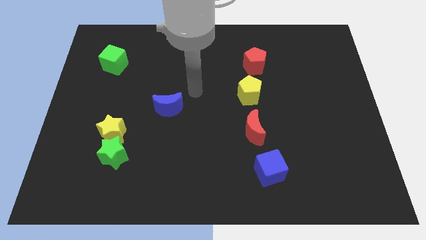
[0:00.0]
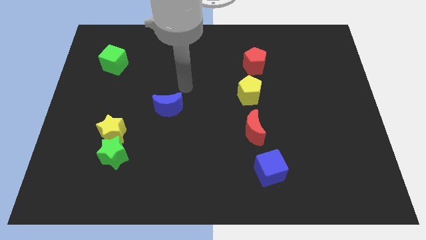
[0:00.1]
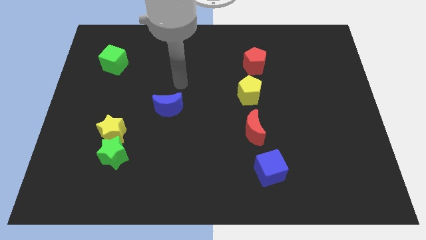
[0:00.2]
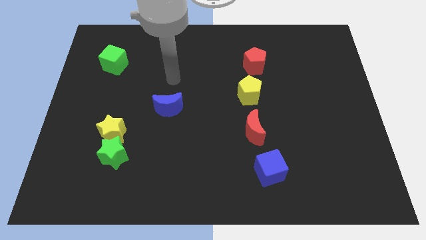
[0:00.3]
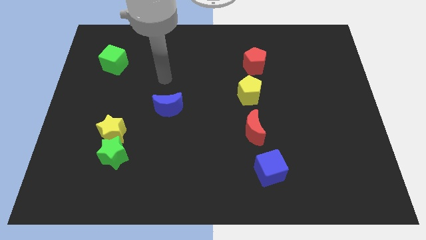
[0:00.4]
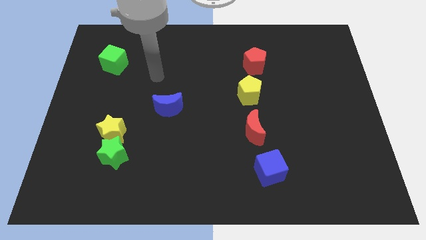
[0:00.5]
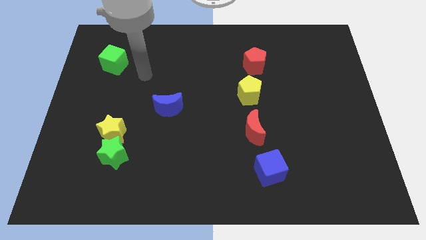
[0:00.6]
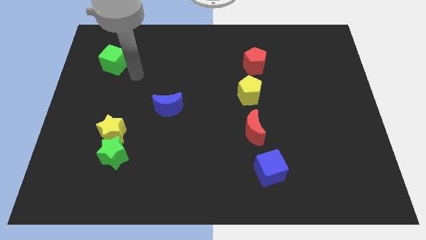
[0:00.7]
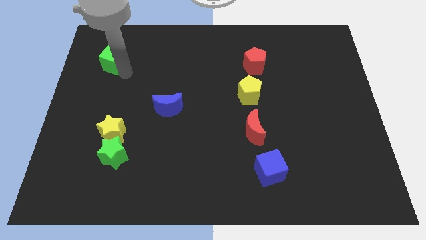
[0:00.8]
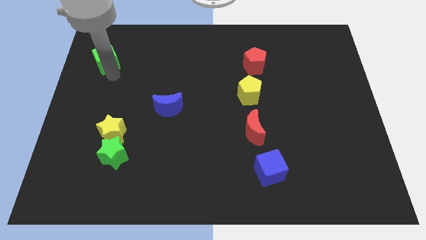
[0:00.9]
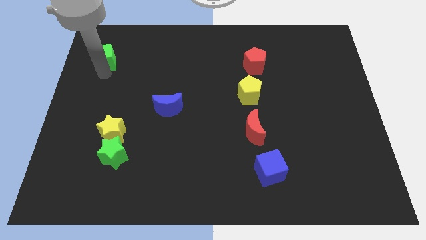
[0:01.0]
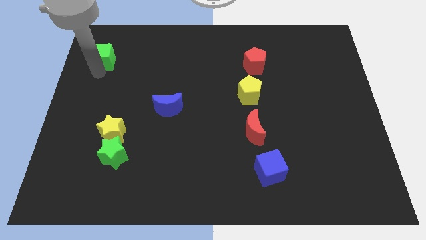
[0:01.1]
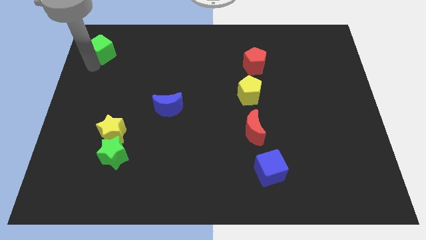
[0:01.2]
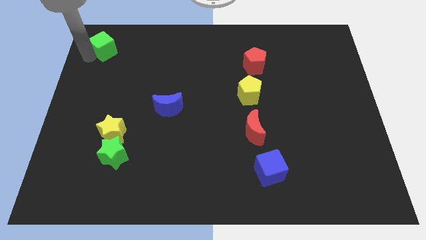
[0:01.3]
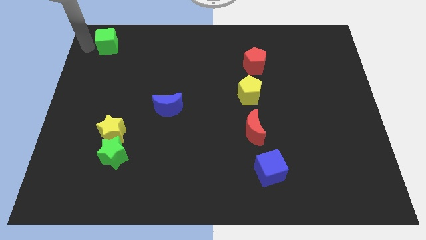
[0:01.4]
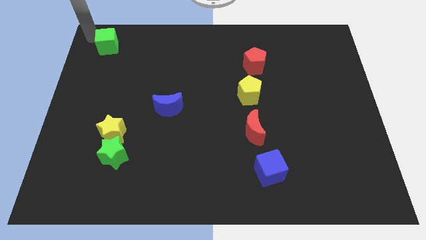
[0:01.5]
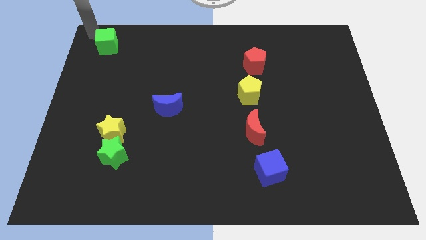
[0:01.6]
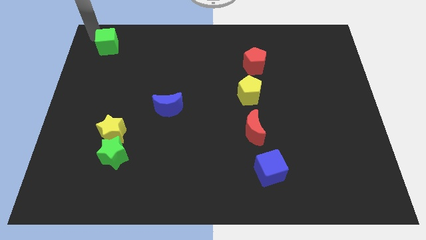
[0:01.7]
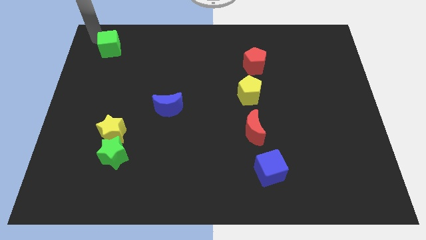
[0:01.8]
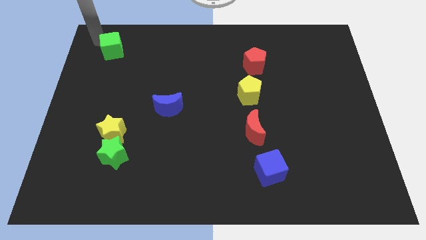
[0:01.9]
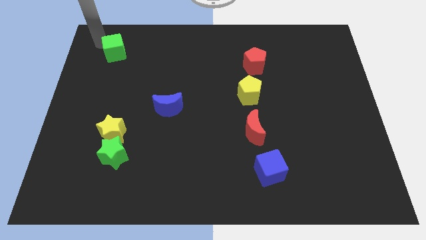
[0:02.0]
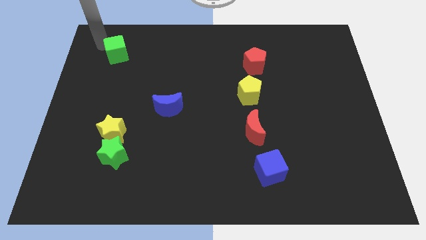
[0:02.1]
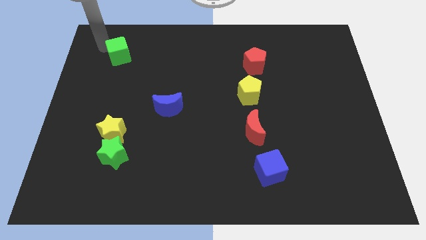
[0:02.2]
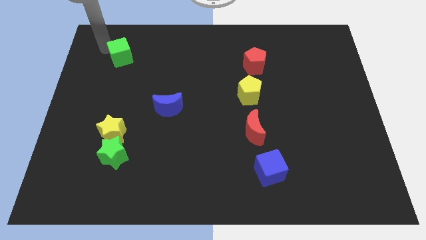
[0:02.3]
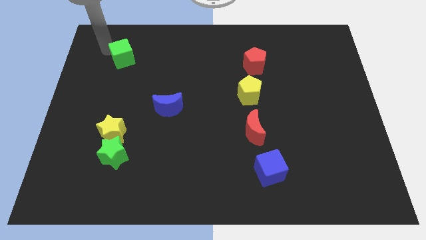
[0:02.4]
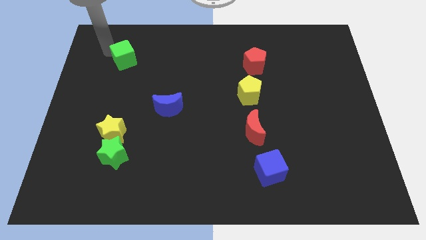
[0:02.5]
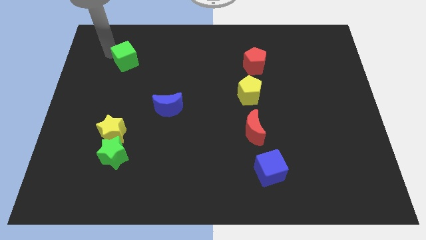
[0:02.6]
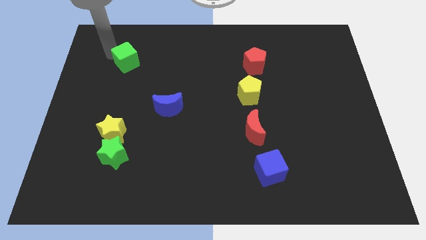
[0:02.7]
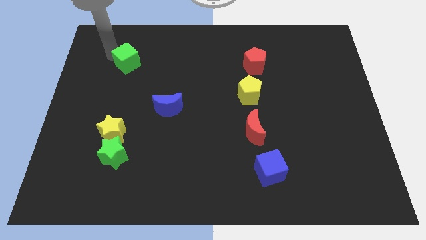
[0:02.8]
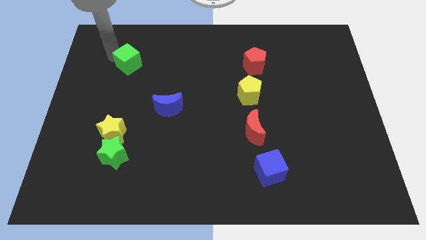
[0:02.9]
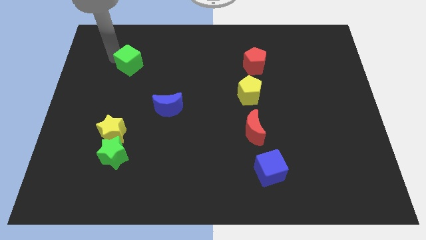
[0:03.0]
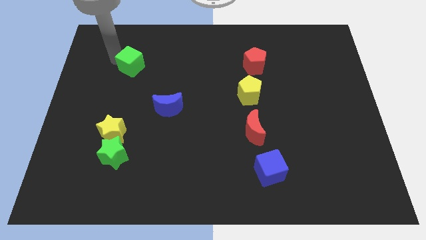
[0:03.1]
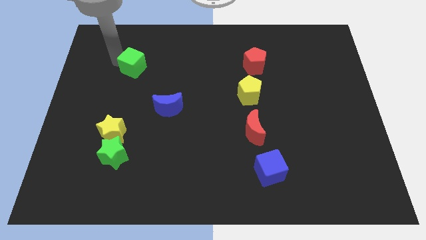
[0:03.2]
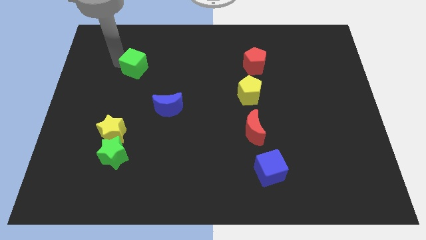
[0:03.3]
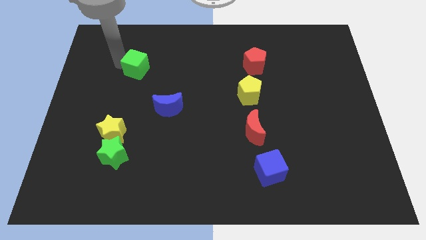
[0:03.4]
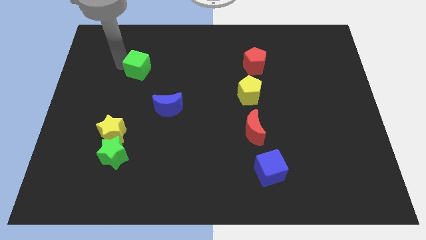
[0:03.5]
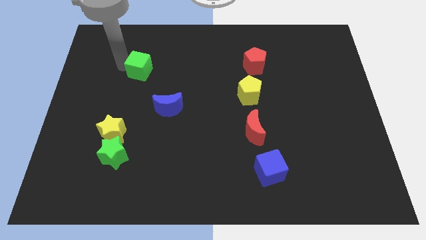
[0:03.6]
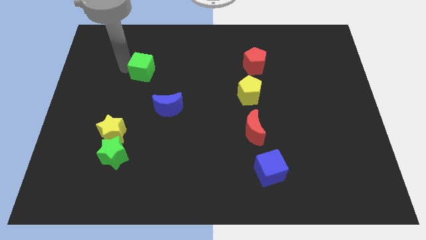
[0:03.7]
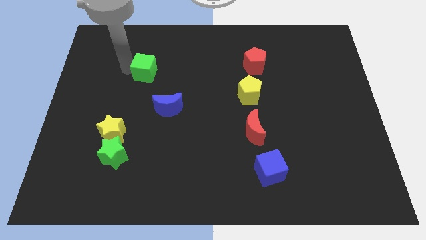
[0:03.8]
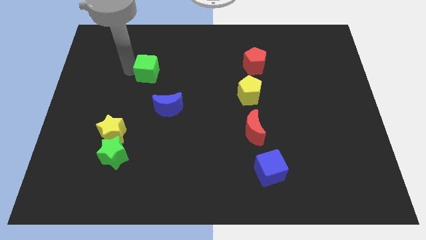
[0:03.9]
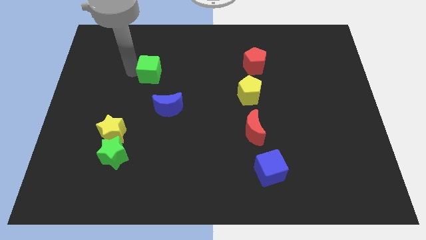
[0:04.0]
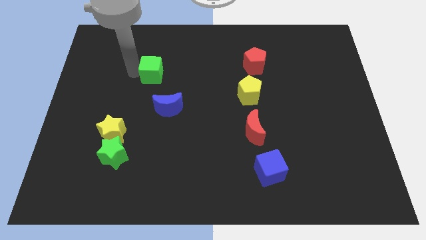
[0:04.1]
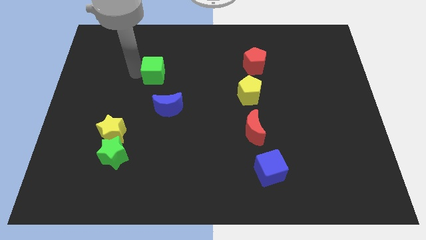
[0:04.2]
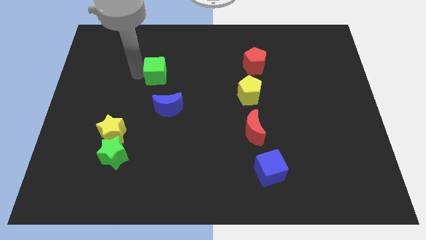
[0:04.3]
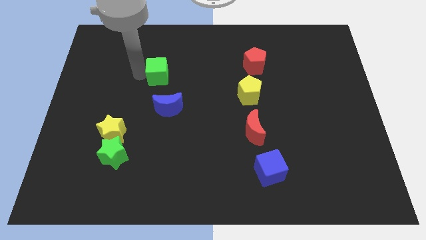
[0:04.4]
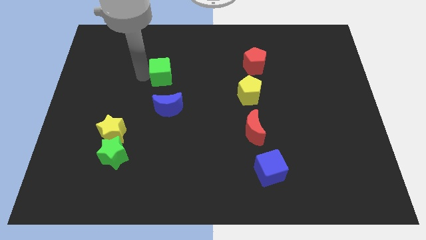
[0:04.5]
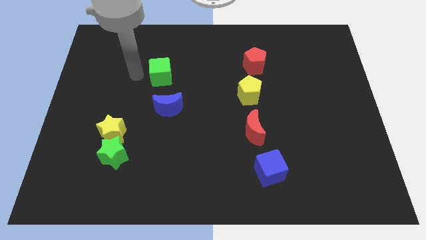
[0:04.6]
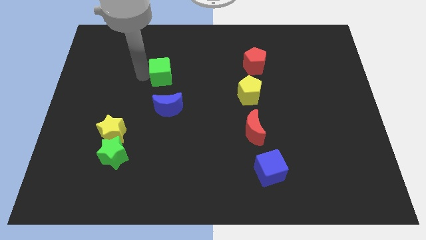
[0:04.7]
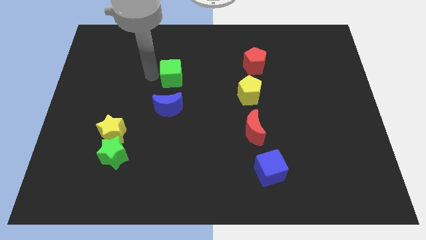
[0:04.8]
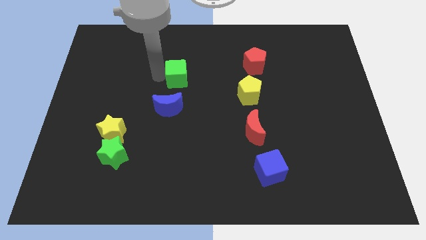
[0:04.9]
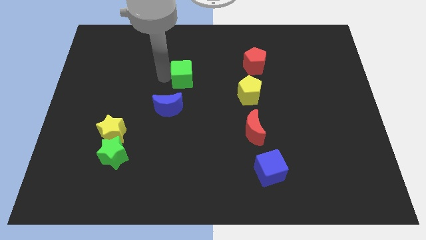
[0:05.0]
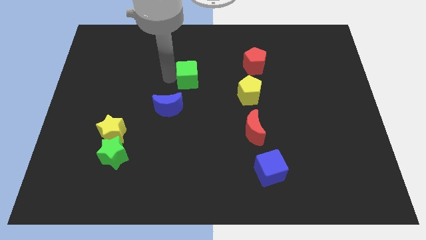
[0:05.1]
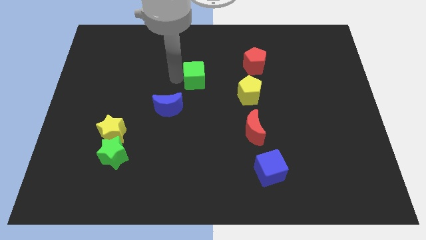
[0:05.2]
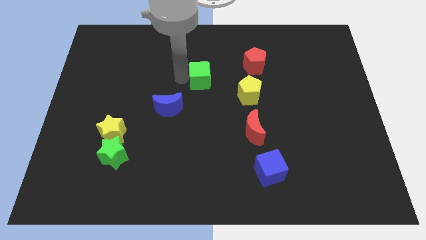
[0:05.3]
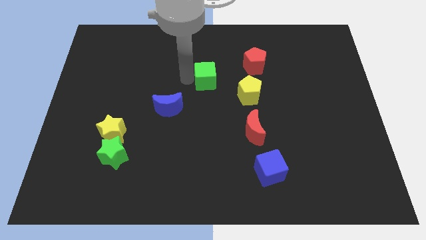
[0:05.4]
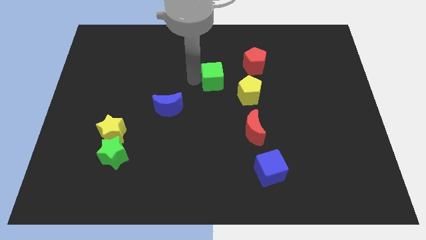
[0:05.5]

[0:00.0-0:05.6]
move the green cube to the top left side of the yellow pentagon

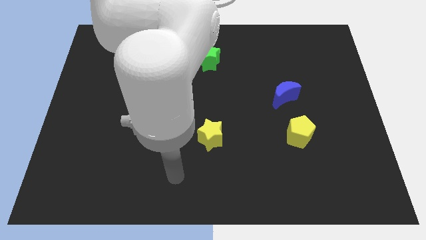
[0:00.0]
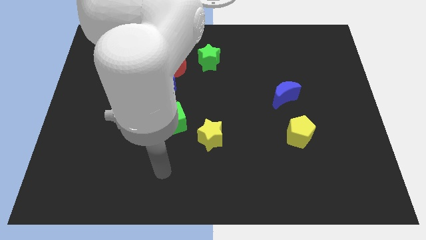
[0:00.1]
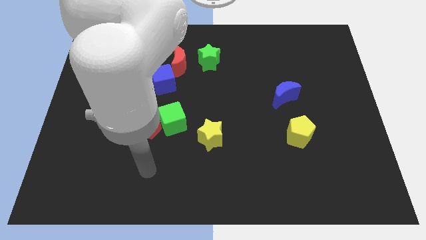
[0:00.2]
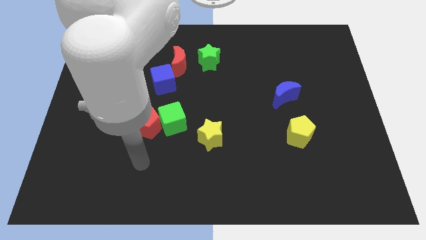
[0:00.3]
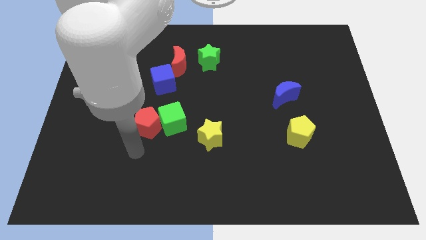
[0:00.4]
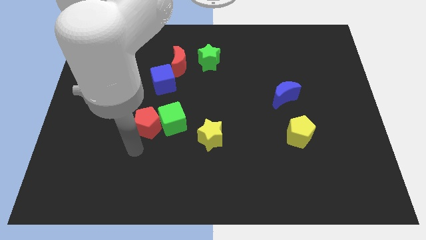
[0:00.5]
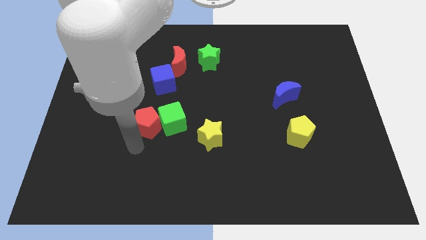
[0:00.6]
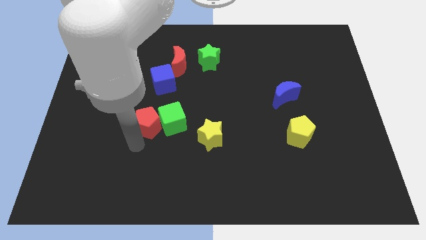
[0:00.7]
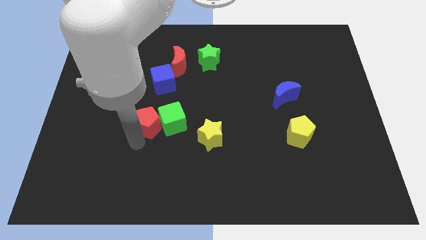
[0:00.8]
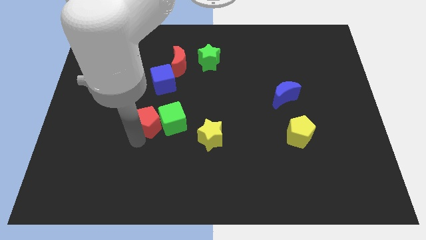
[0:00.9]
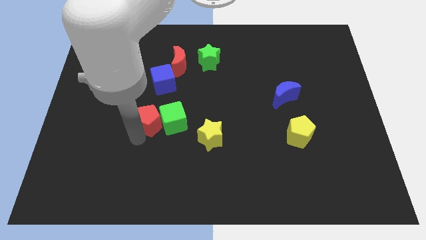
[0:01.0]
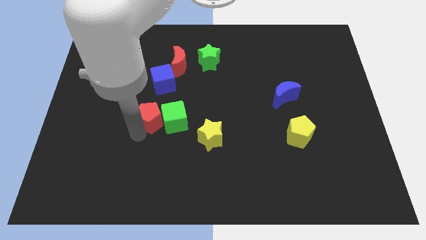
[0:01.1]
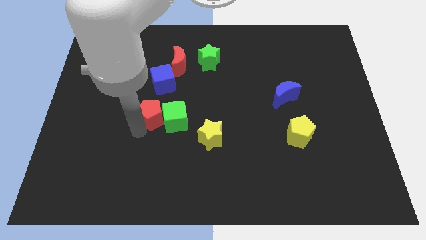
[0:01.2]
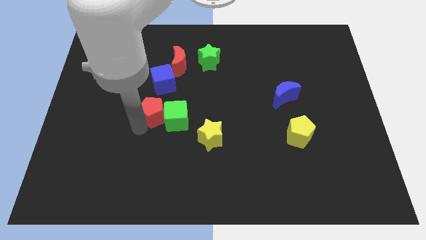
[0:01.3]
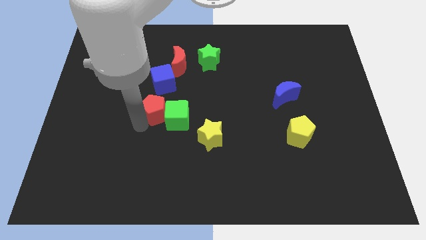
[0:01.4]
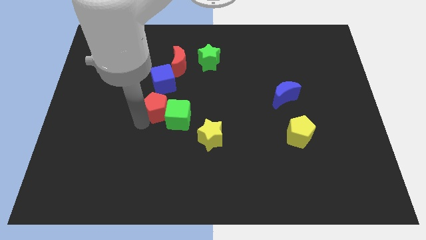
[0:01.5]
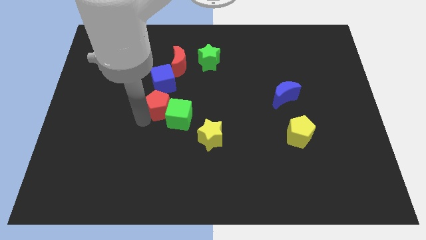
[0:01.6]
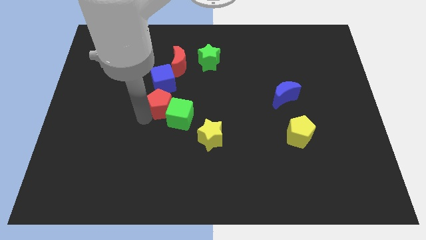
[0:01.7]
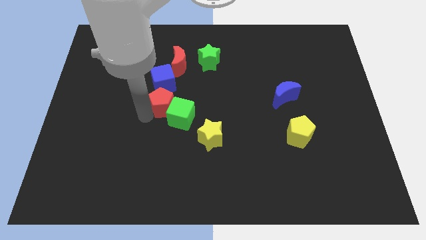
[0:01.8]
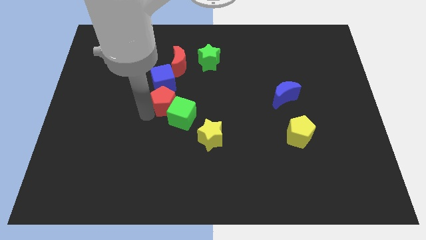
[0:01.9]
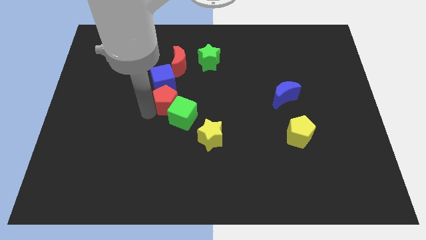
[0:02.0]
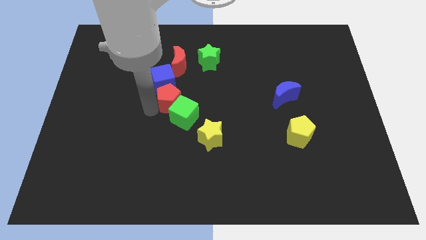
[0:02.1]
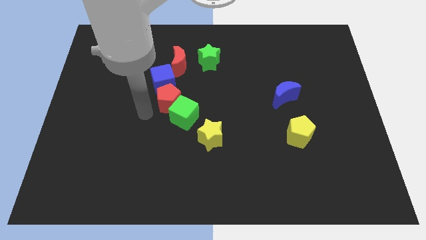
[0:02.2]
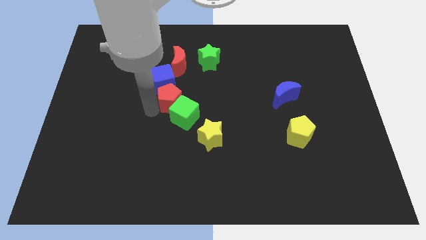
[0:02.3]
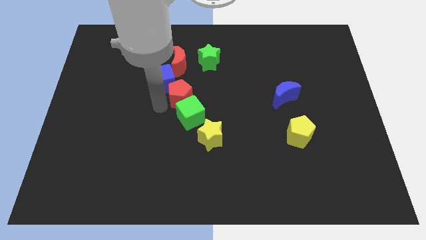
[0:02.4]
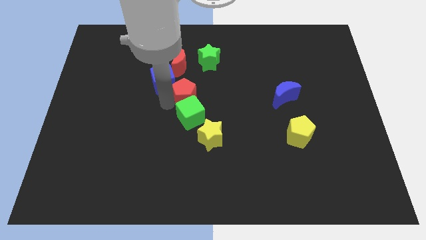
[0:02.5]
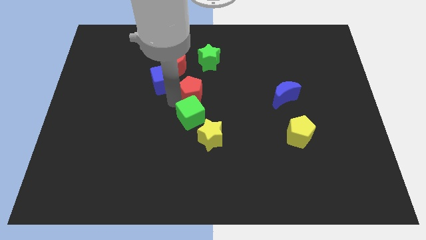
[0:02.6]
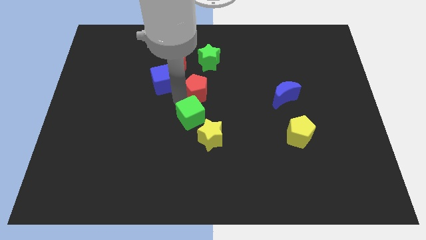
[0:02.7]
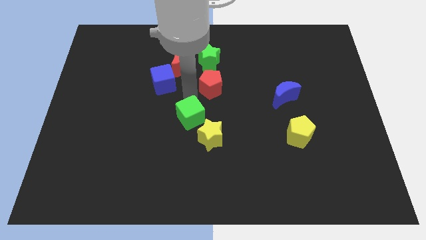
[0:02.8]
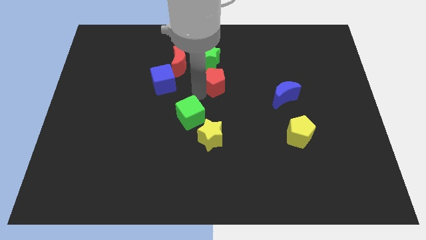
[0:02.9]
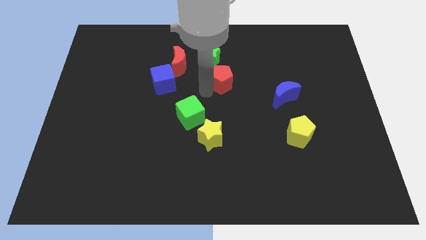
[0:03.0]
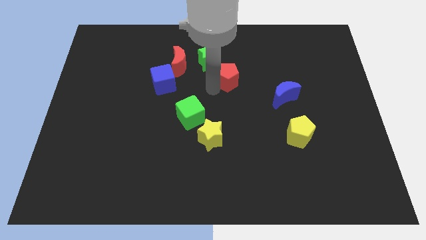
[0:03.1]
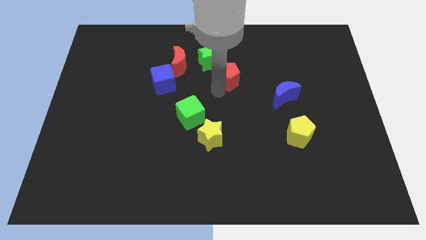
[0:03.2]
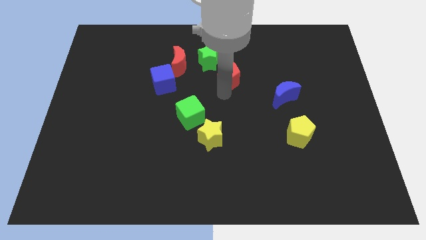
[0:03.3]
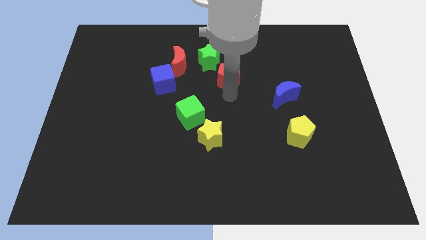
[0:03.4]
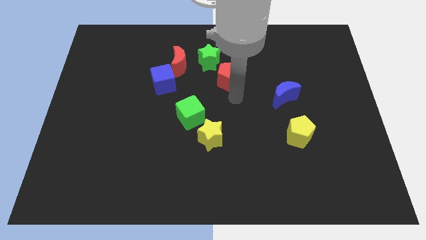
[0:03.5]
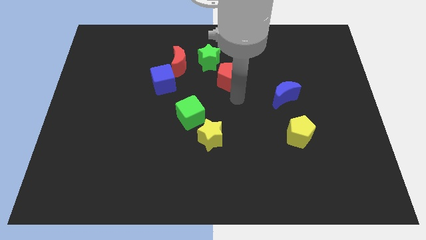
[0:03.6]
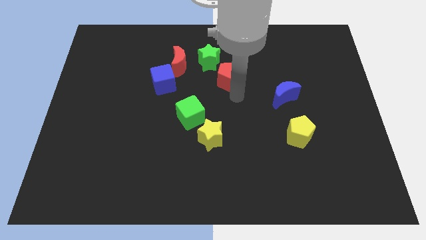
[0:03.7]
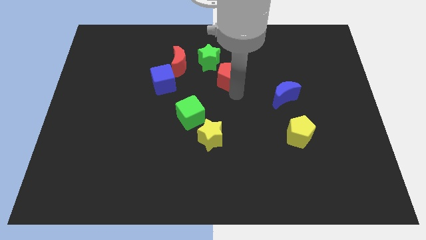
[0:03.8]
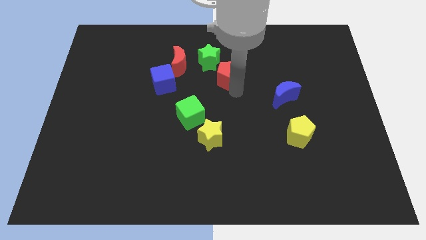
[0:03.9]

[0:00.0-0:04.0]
slide the red pentagon to the right side of the red moon
